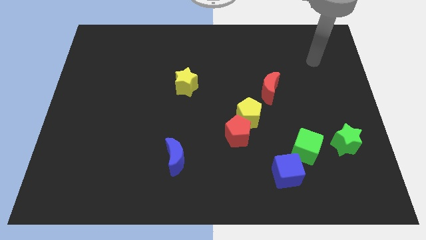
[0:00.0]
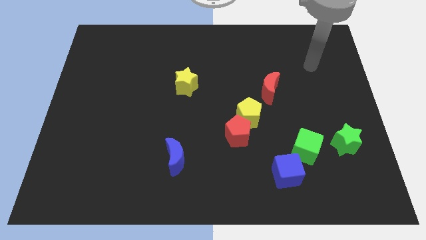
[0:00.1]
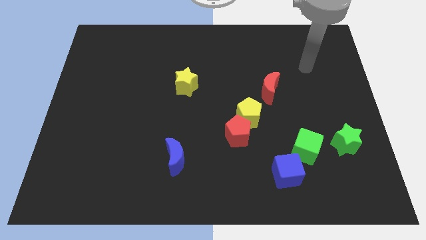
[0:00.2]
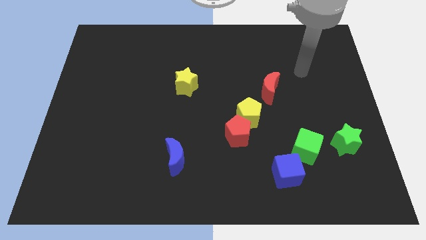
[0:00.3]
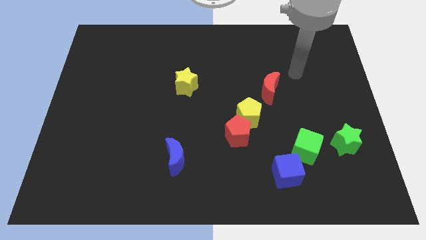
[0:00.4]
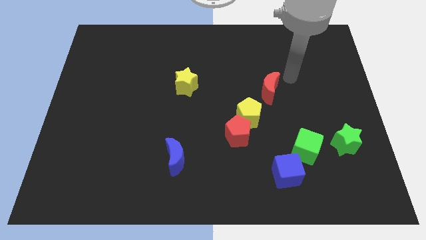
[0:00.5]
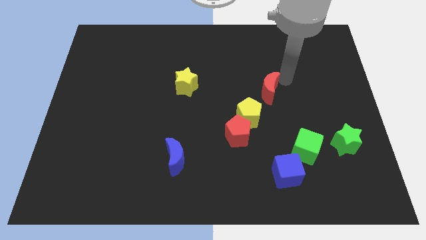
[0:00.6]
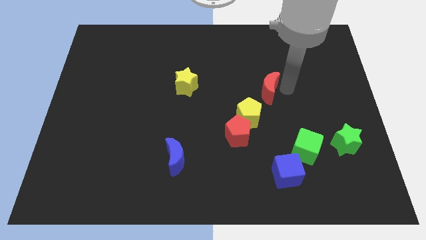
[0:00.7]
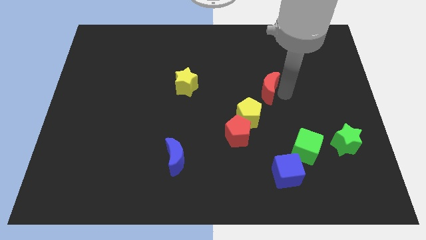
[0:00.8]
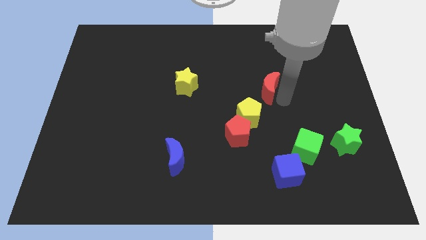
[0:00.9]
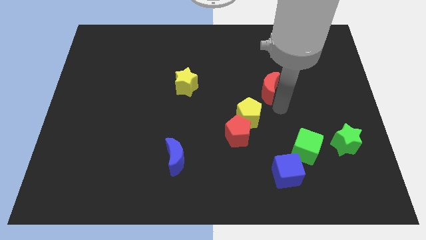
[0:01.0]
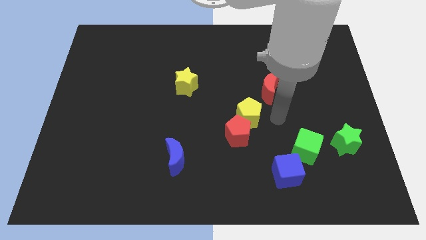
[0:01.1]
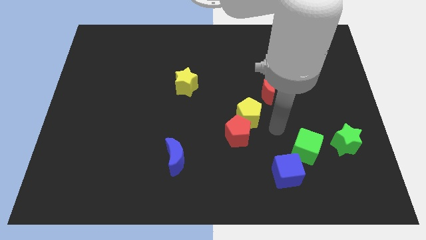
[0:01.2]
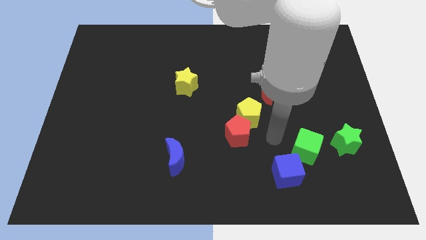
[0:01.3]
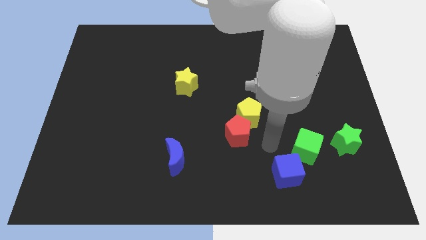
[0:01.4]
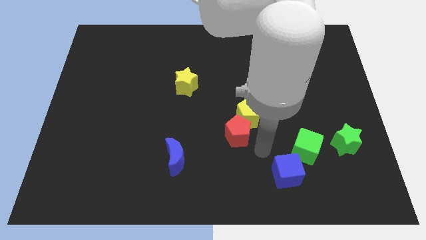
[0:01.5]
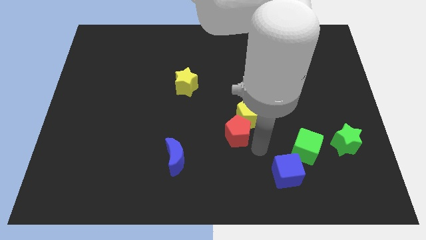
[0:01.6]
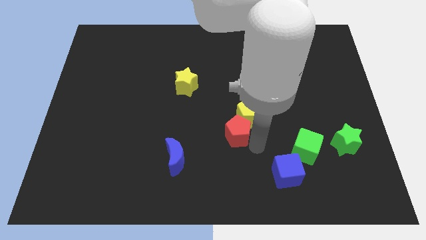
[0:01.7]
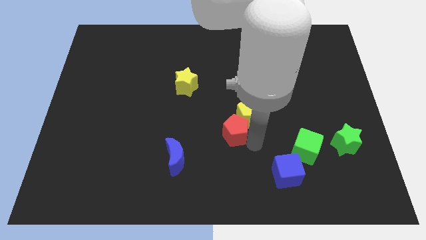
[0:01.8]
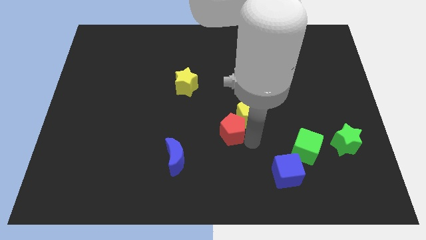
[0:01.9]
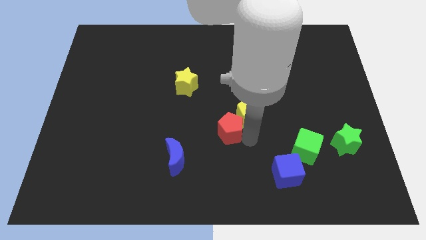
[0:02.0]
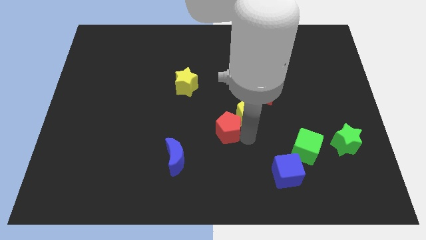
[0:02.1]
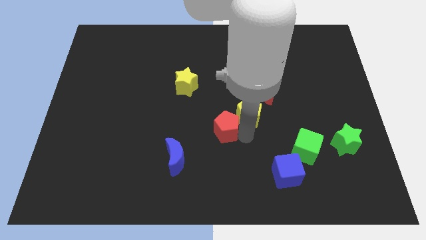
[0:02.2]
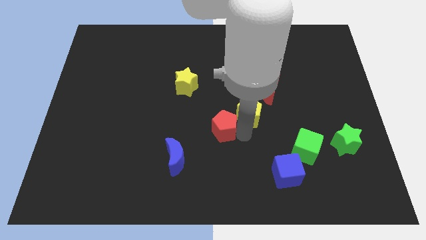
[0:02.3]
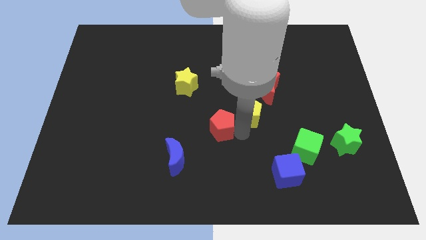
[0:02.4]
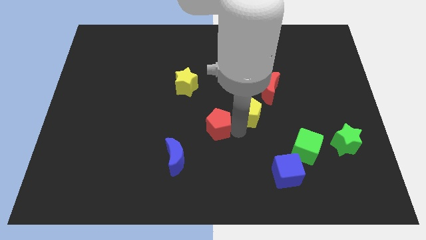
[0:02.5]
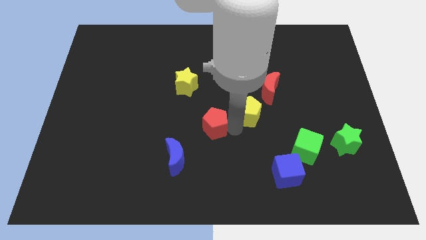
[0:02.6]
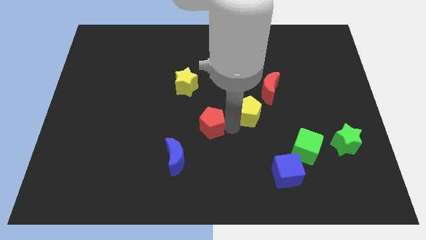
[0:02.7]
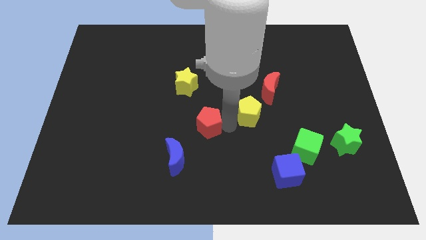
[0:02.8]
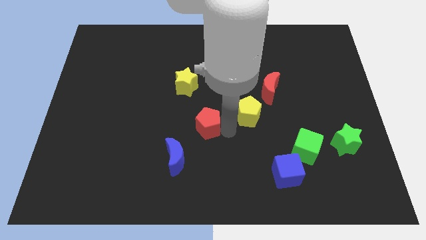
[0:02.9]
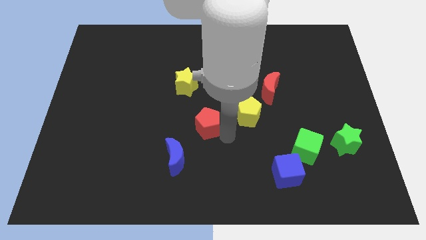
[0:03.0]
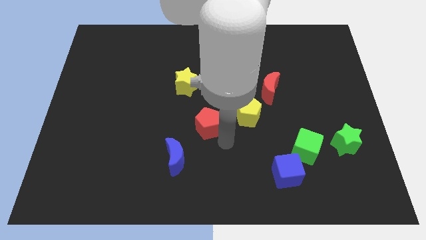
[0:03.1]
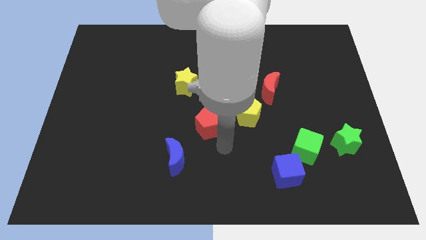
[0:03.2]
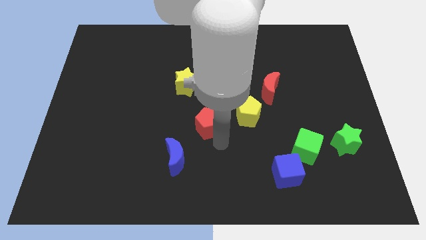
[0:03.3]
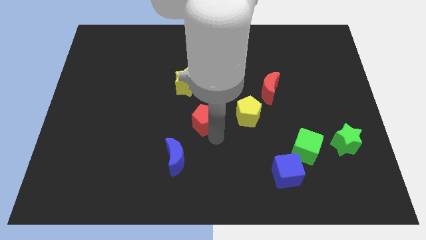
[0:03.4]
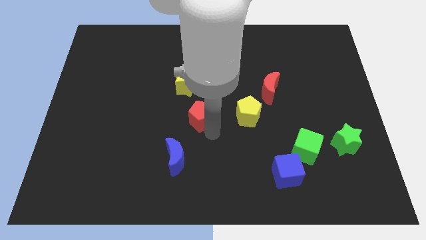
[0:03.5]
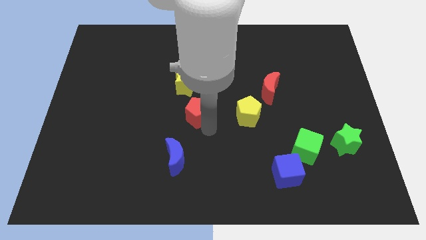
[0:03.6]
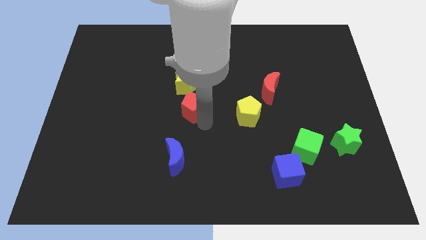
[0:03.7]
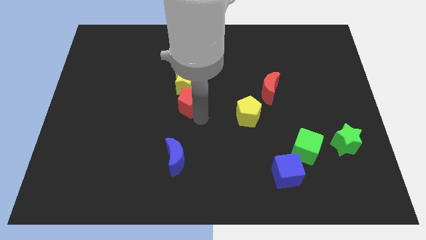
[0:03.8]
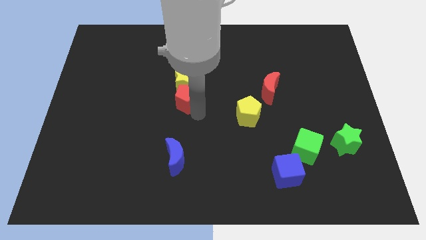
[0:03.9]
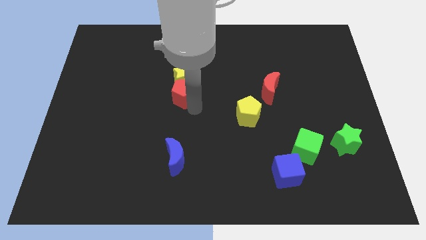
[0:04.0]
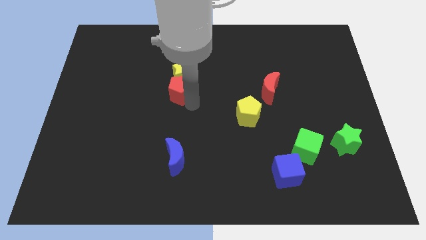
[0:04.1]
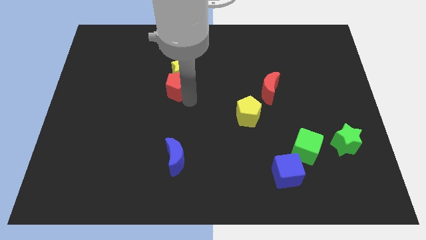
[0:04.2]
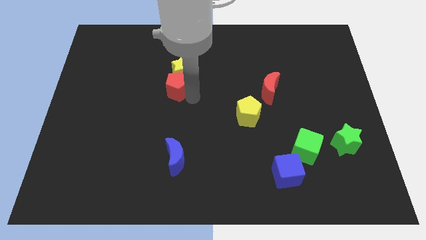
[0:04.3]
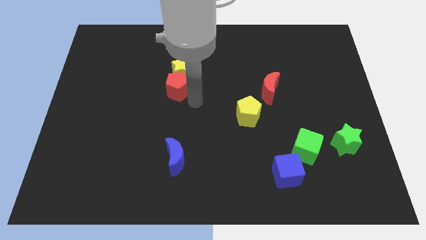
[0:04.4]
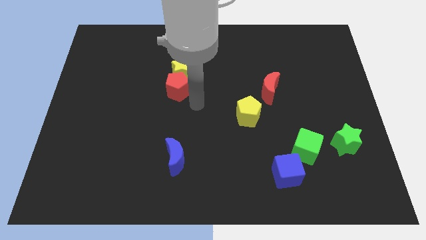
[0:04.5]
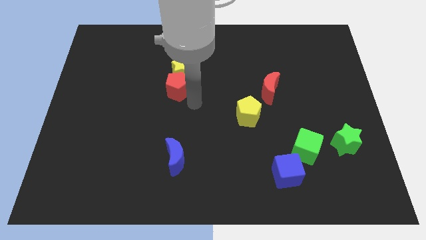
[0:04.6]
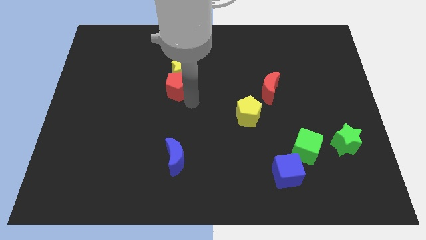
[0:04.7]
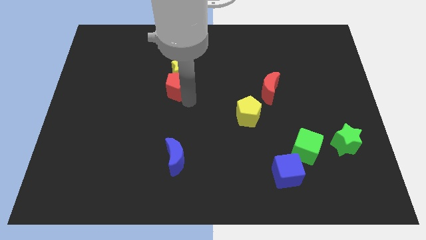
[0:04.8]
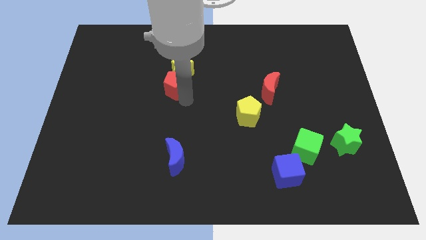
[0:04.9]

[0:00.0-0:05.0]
move the red pentagon upwards and then left

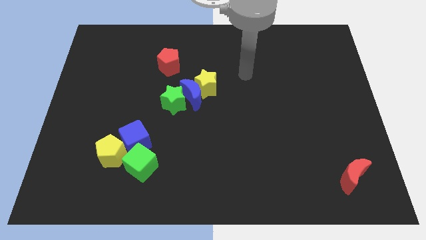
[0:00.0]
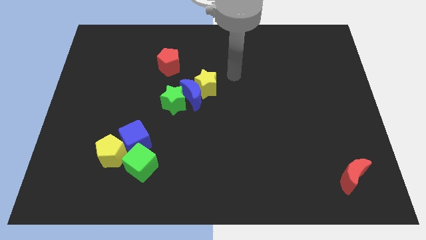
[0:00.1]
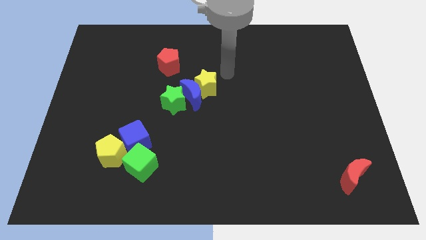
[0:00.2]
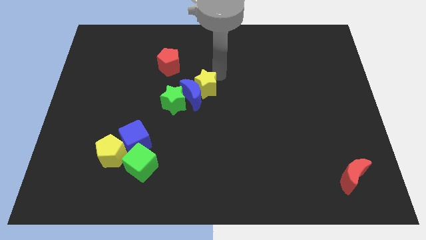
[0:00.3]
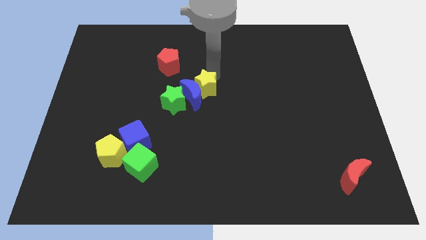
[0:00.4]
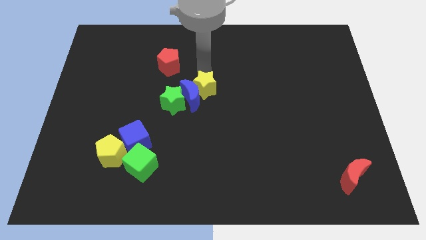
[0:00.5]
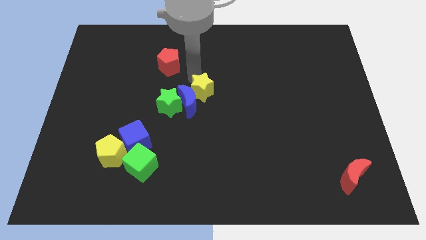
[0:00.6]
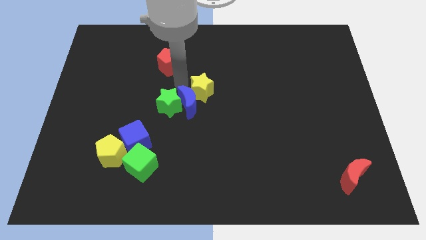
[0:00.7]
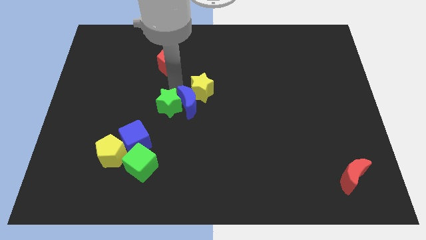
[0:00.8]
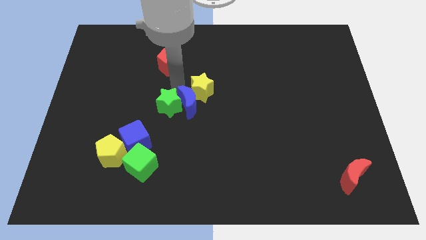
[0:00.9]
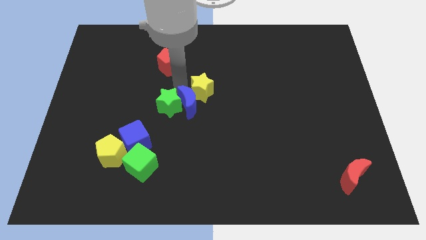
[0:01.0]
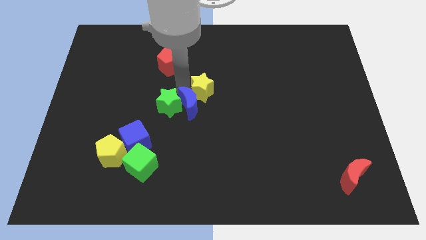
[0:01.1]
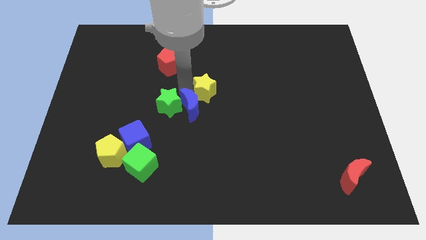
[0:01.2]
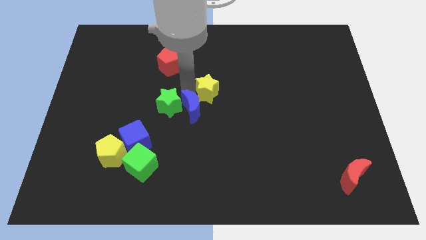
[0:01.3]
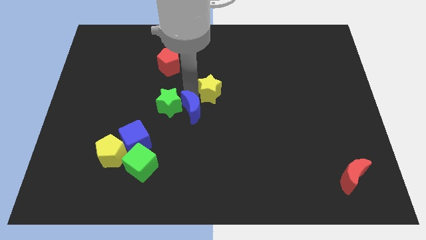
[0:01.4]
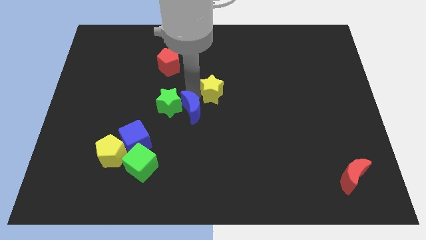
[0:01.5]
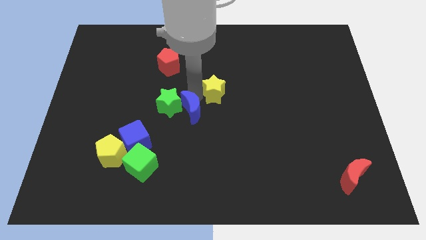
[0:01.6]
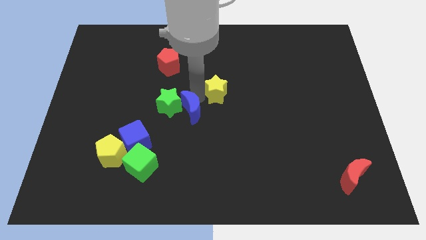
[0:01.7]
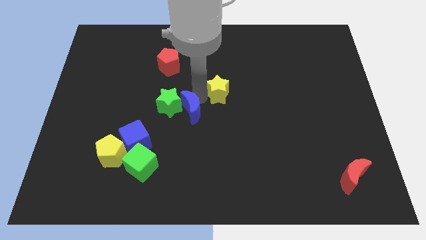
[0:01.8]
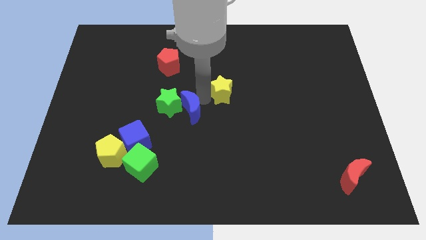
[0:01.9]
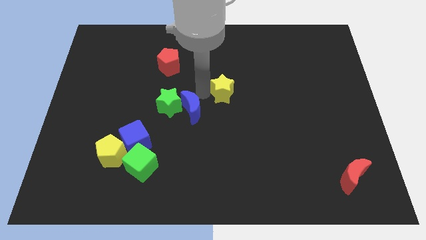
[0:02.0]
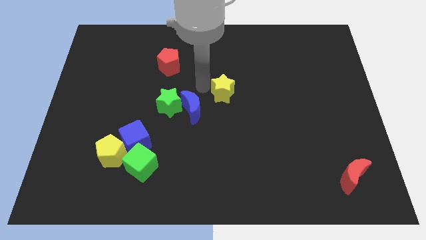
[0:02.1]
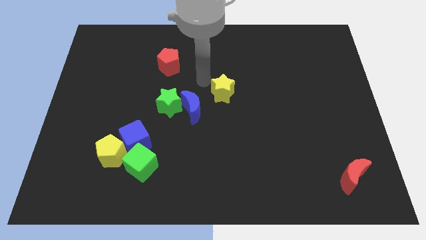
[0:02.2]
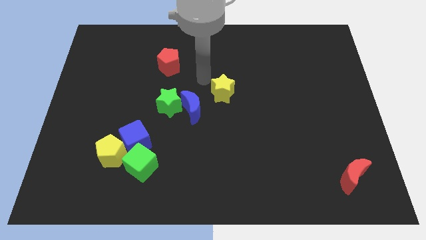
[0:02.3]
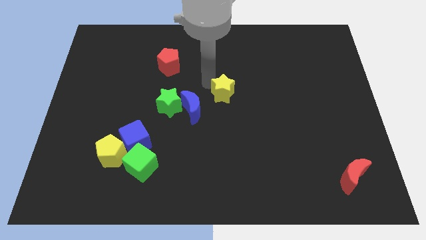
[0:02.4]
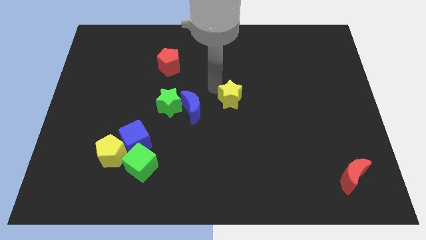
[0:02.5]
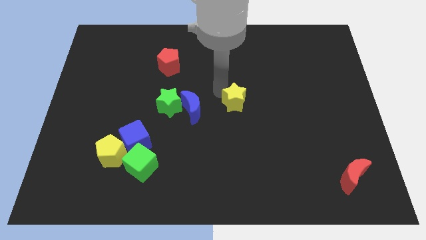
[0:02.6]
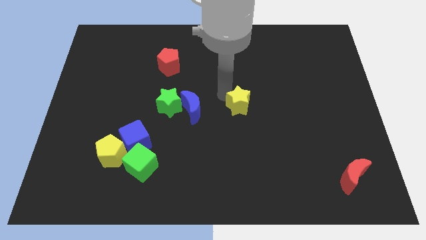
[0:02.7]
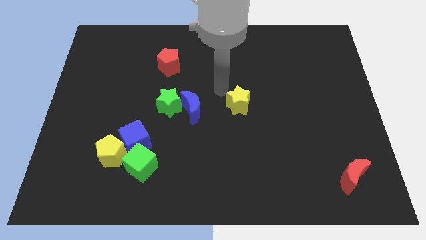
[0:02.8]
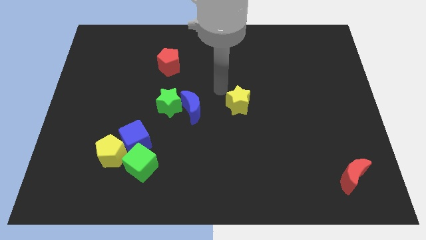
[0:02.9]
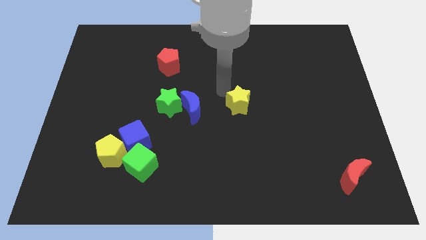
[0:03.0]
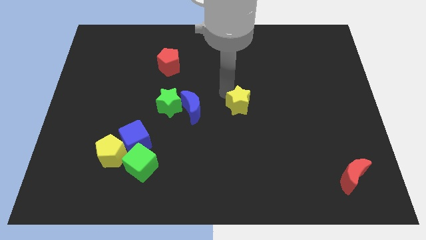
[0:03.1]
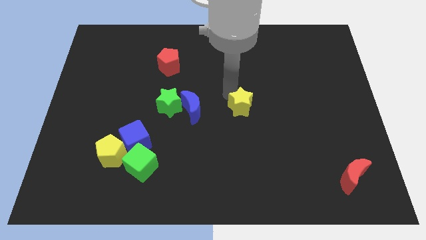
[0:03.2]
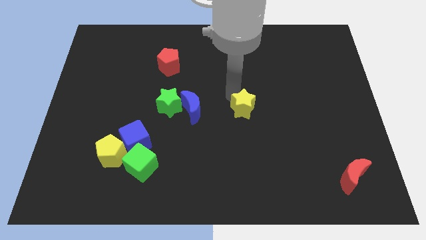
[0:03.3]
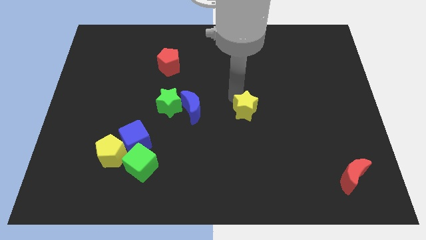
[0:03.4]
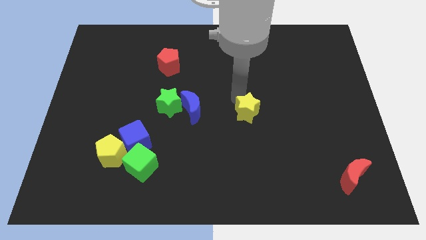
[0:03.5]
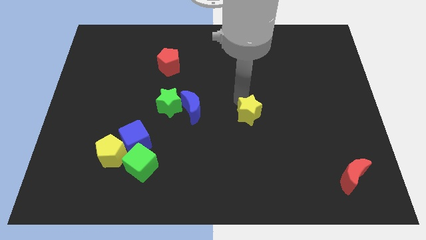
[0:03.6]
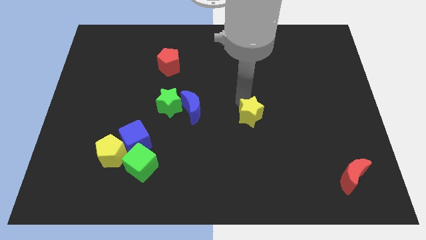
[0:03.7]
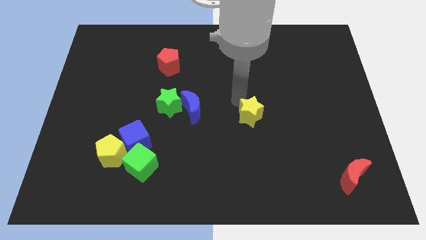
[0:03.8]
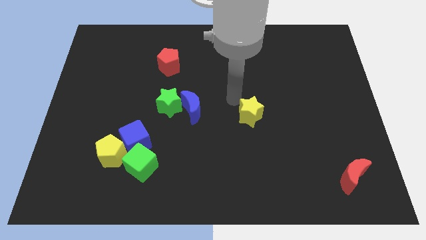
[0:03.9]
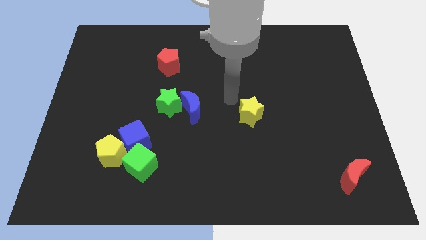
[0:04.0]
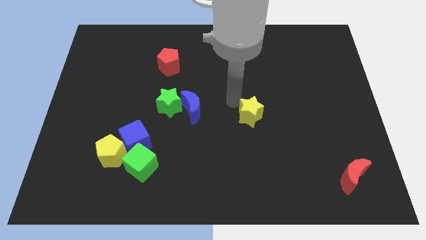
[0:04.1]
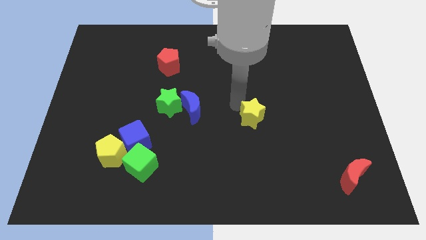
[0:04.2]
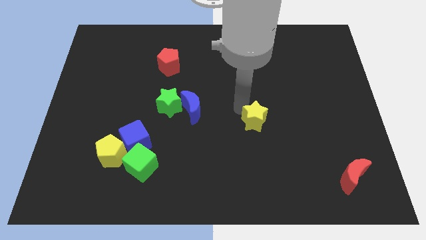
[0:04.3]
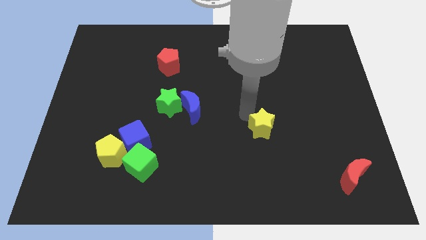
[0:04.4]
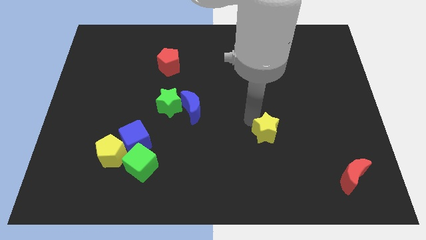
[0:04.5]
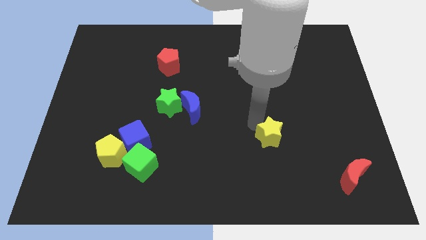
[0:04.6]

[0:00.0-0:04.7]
move the yellow star downwards and right diagonally
